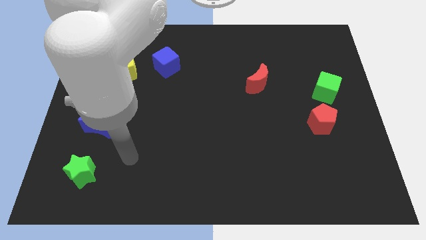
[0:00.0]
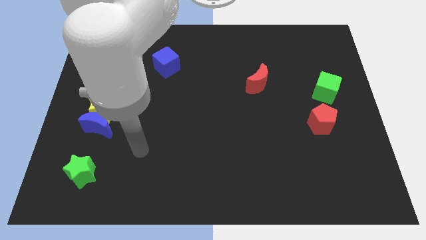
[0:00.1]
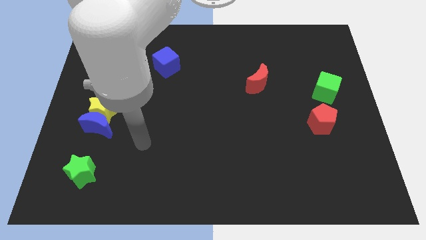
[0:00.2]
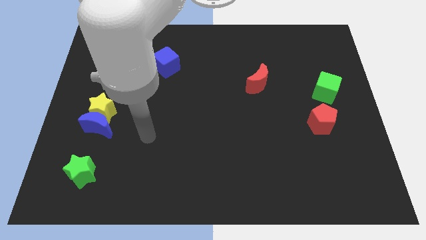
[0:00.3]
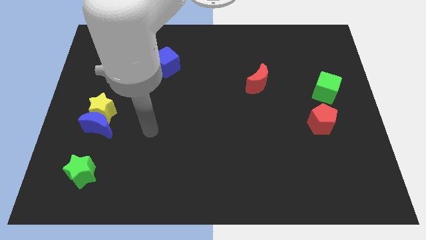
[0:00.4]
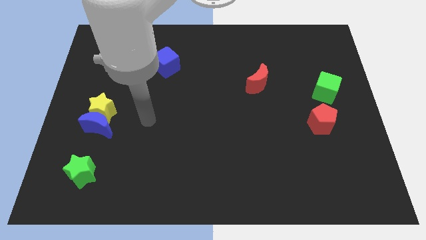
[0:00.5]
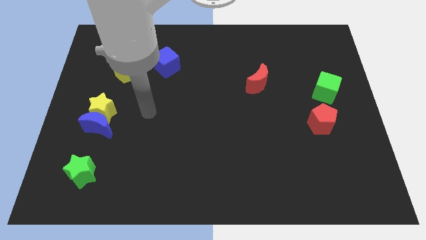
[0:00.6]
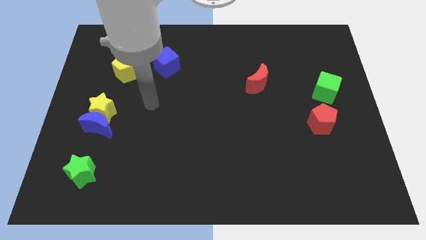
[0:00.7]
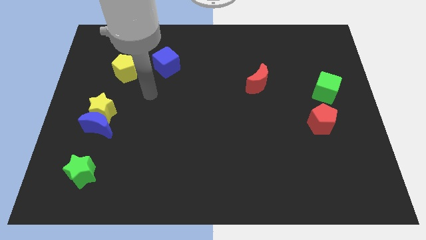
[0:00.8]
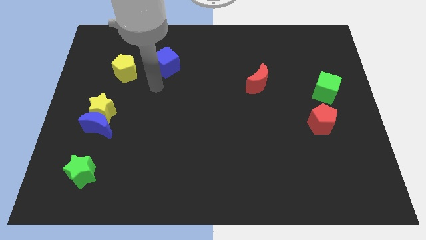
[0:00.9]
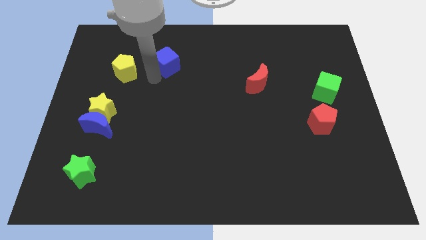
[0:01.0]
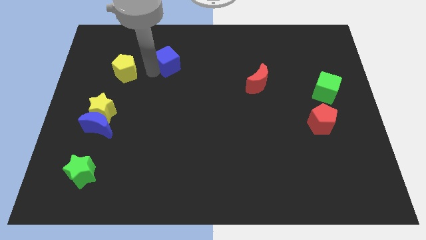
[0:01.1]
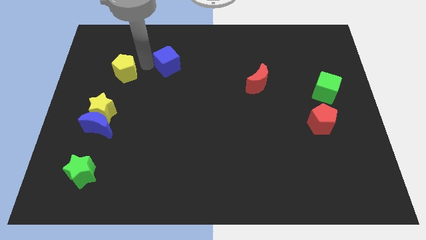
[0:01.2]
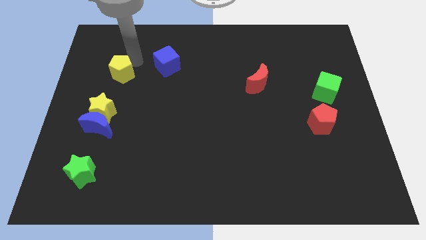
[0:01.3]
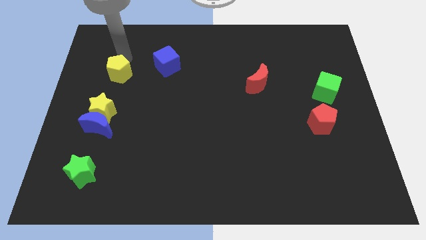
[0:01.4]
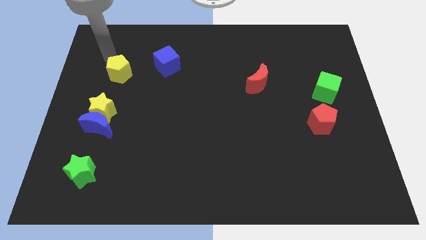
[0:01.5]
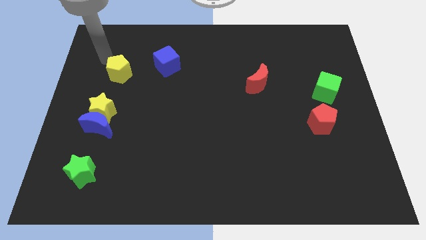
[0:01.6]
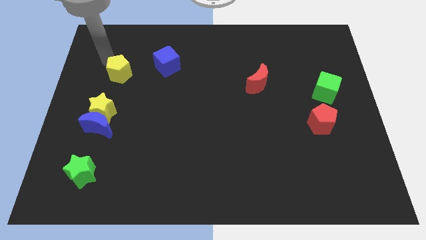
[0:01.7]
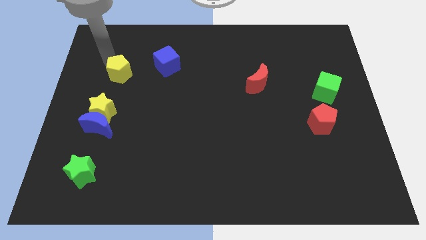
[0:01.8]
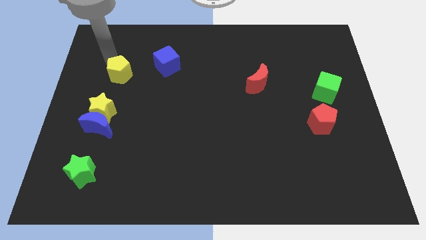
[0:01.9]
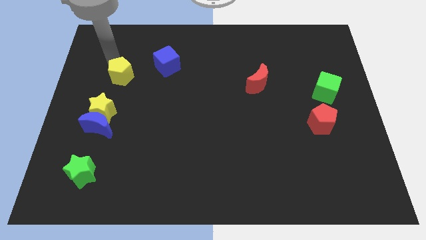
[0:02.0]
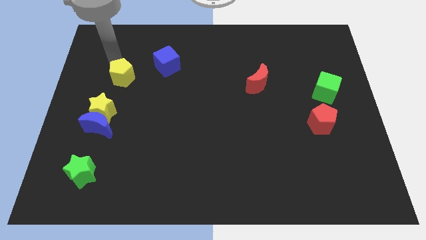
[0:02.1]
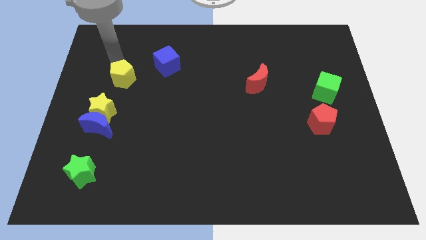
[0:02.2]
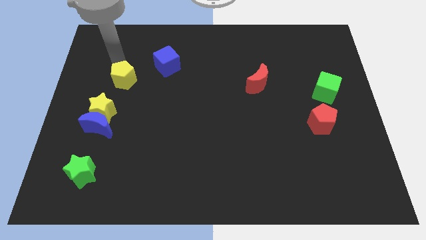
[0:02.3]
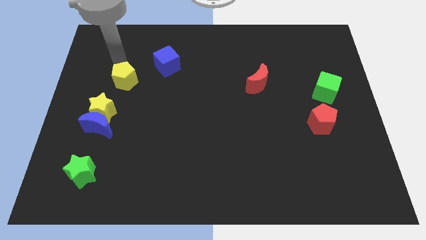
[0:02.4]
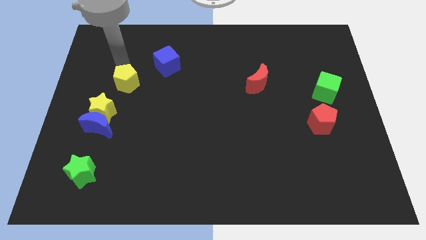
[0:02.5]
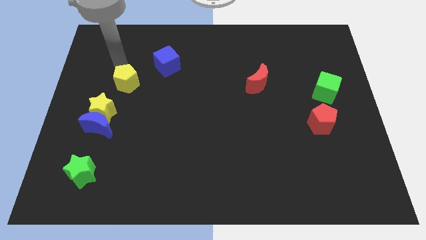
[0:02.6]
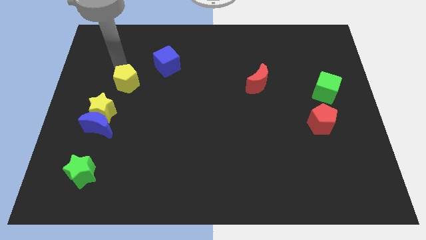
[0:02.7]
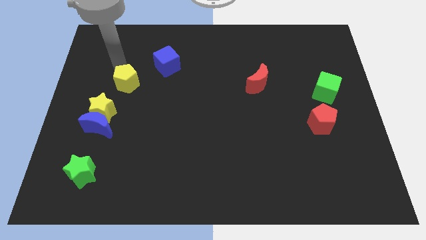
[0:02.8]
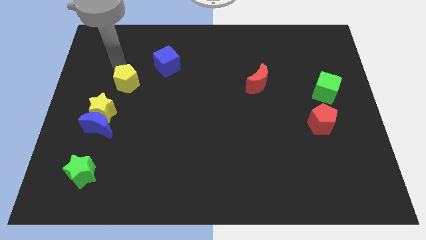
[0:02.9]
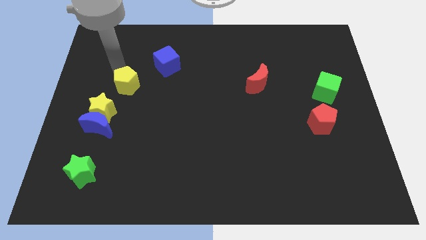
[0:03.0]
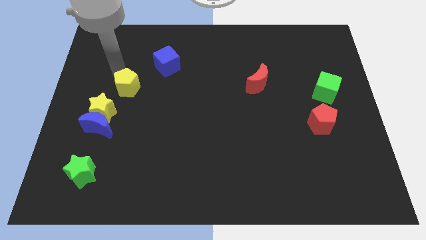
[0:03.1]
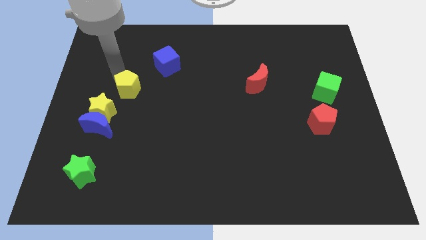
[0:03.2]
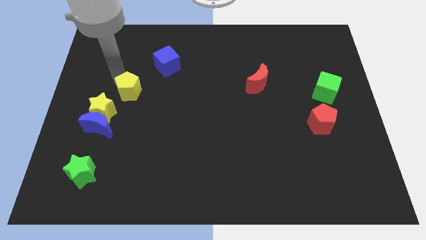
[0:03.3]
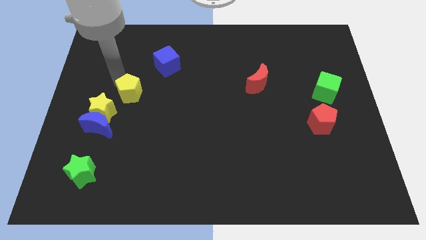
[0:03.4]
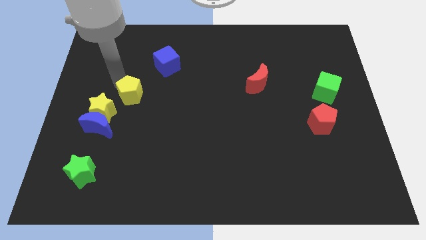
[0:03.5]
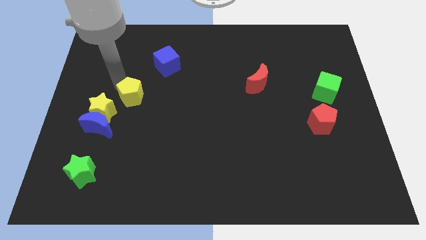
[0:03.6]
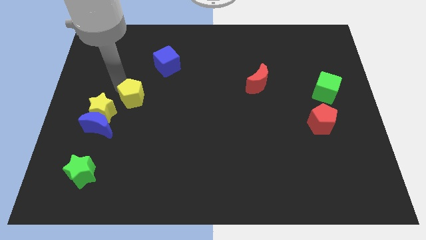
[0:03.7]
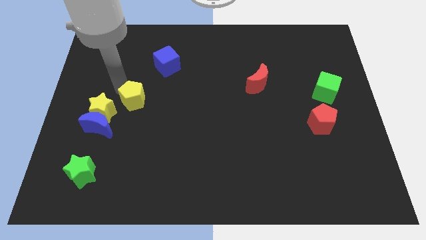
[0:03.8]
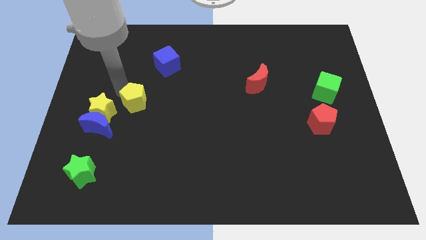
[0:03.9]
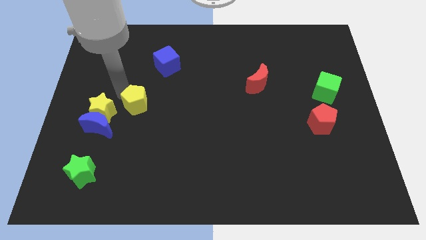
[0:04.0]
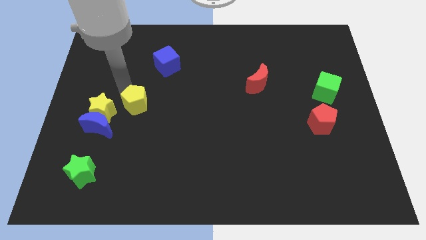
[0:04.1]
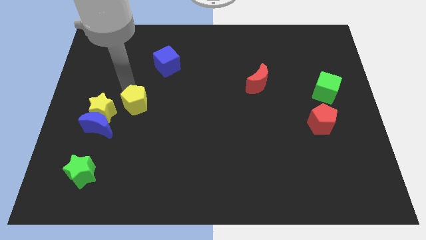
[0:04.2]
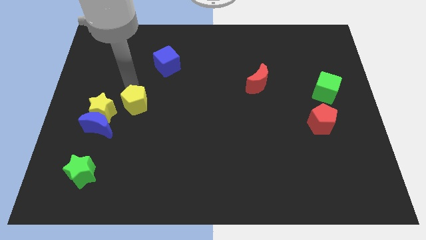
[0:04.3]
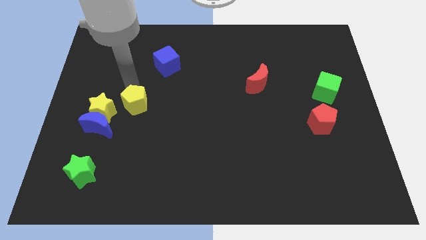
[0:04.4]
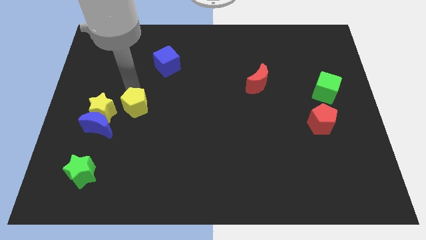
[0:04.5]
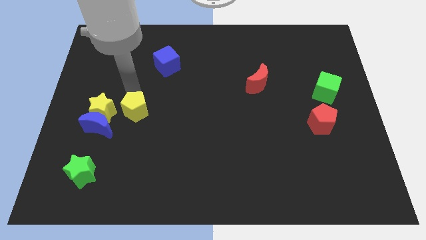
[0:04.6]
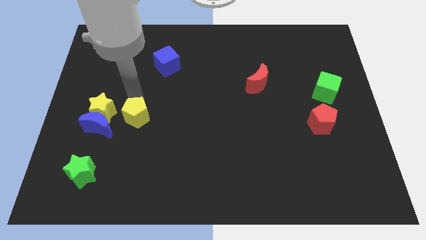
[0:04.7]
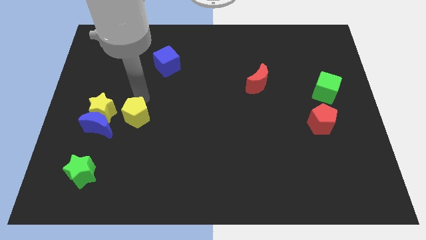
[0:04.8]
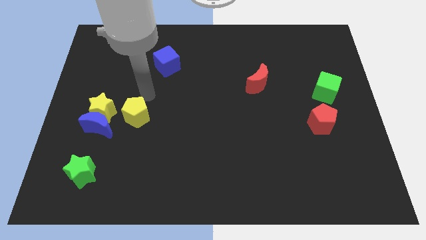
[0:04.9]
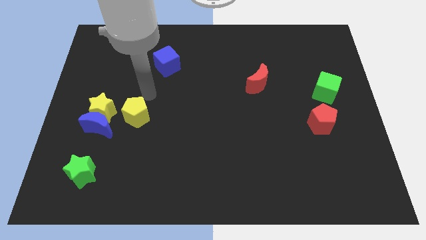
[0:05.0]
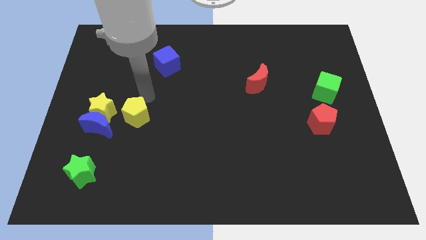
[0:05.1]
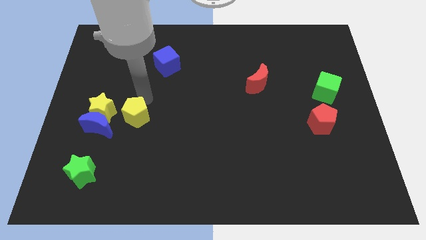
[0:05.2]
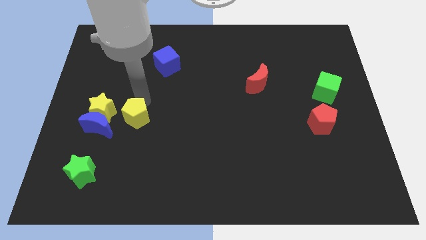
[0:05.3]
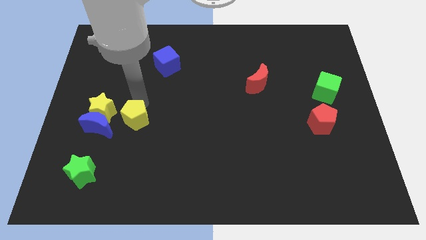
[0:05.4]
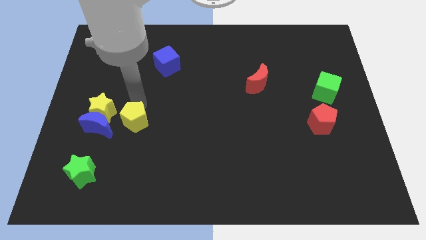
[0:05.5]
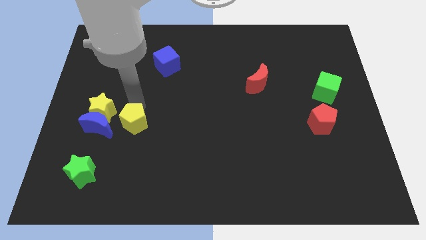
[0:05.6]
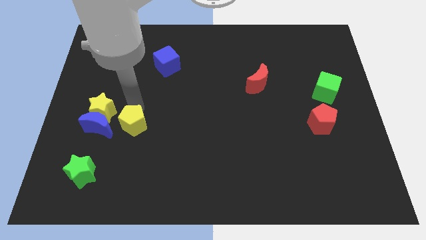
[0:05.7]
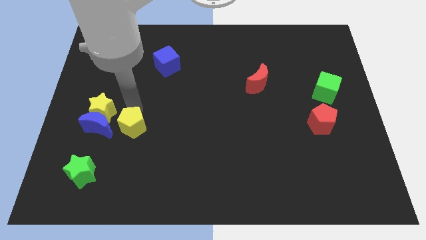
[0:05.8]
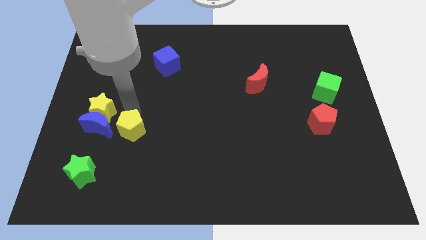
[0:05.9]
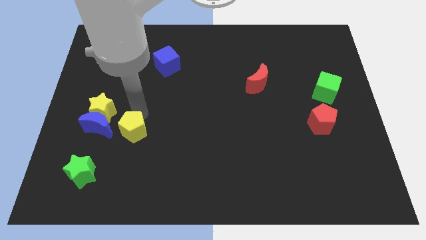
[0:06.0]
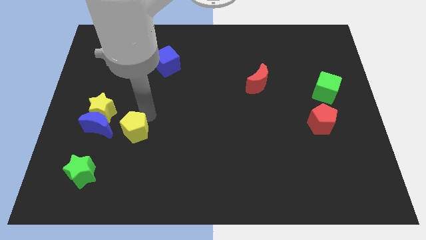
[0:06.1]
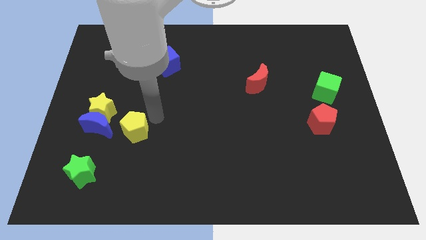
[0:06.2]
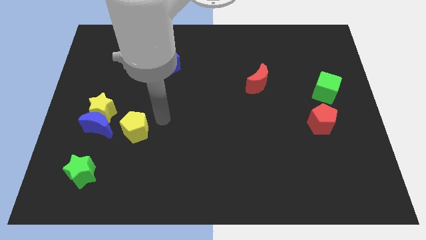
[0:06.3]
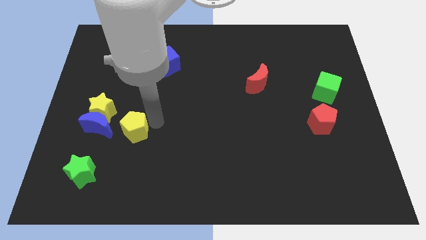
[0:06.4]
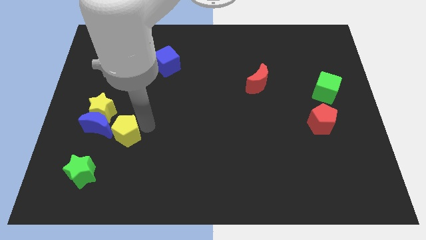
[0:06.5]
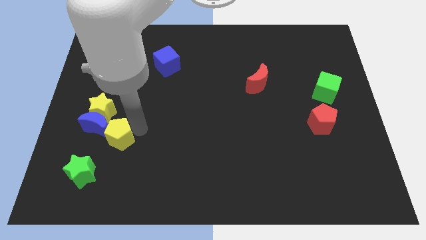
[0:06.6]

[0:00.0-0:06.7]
move the yellow pentagon to the blue moon

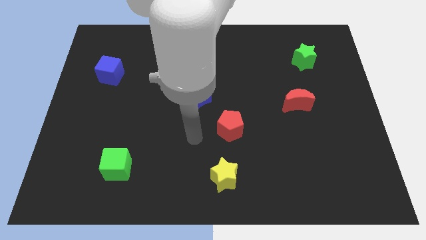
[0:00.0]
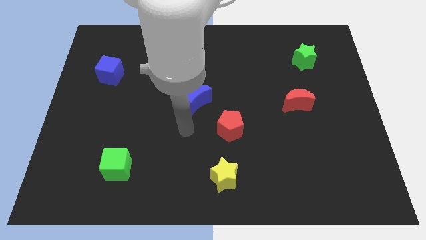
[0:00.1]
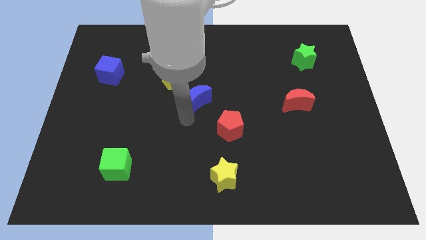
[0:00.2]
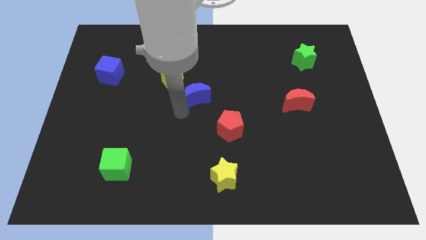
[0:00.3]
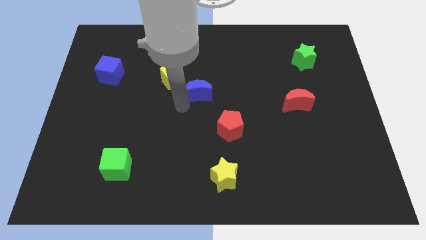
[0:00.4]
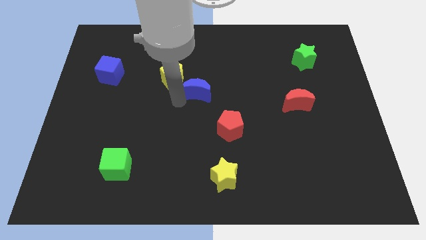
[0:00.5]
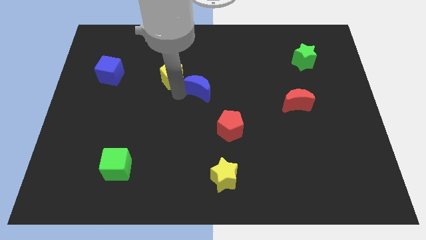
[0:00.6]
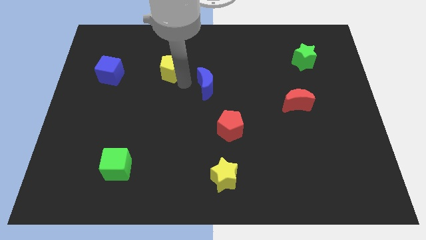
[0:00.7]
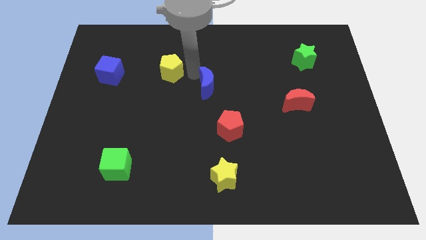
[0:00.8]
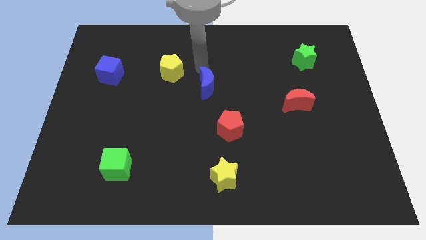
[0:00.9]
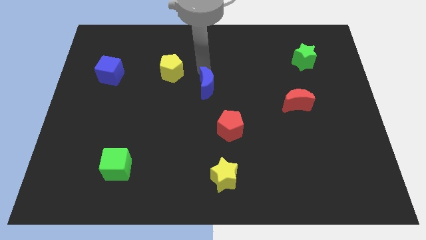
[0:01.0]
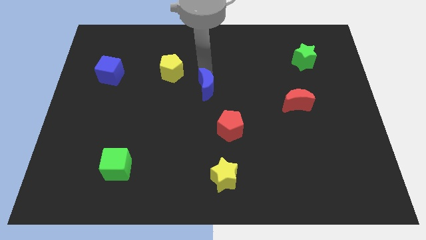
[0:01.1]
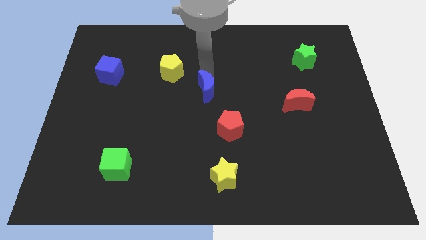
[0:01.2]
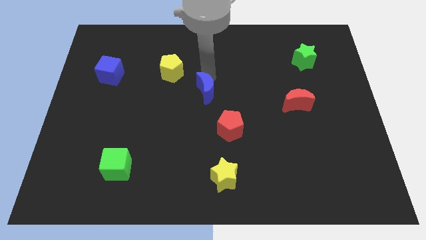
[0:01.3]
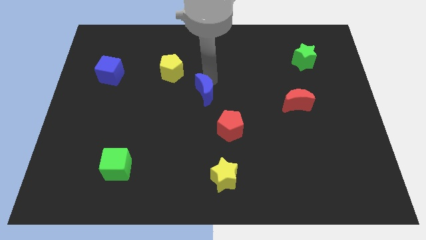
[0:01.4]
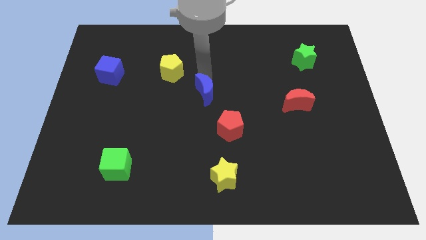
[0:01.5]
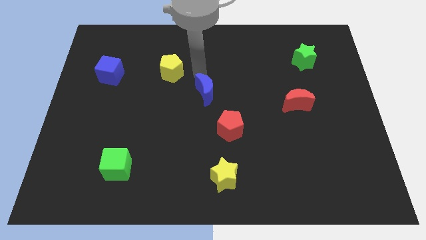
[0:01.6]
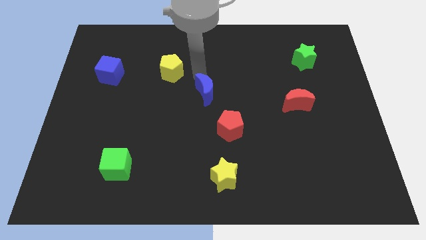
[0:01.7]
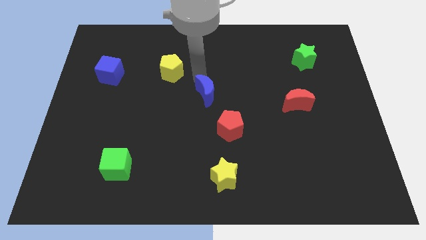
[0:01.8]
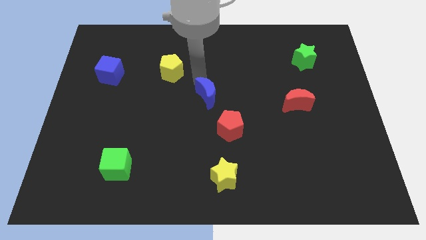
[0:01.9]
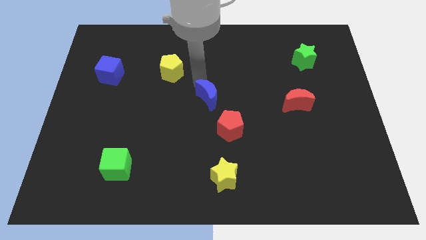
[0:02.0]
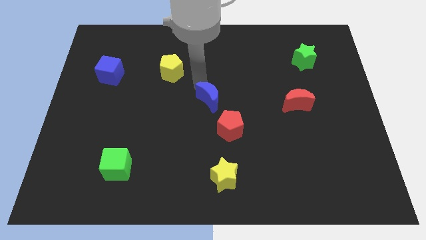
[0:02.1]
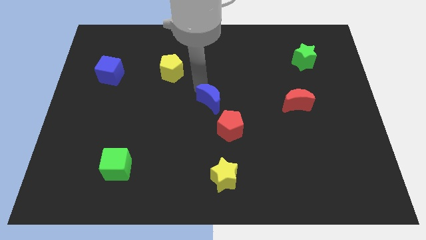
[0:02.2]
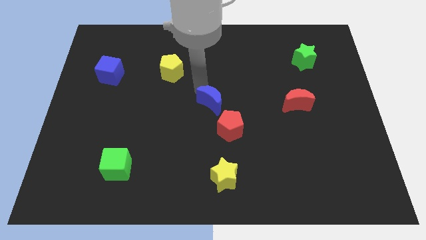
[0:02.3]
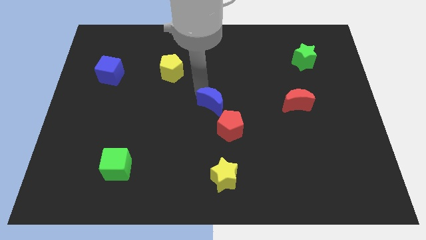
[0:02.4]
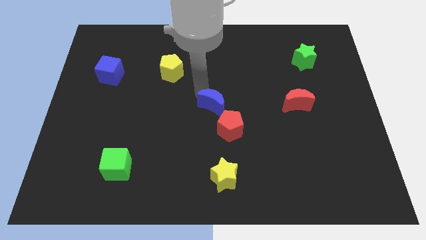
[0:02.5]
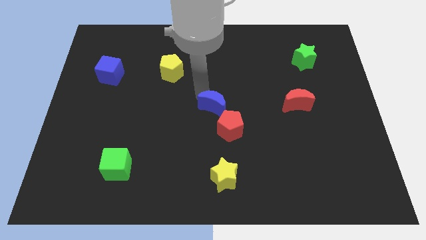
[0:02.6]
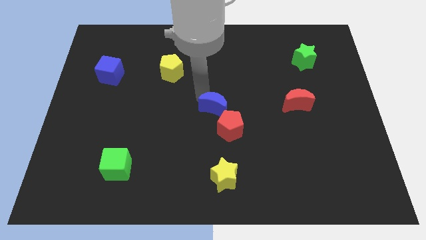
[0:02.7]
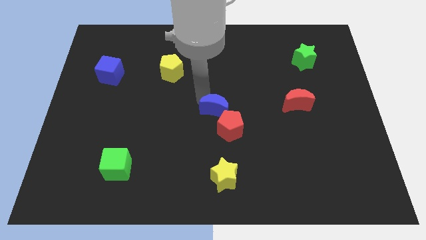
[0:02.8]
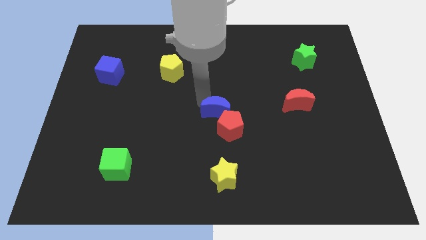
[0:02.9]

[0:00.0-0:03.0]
push the blue moon towards the red pentagon
